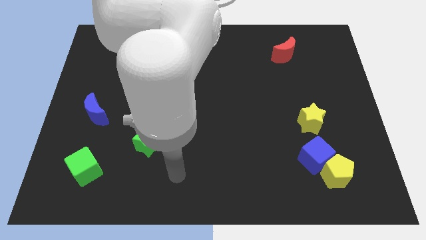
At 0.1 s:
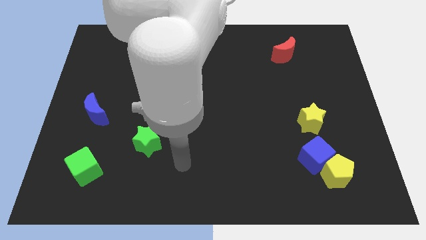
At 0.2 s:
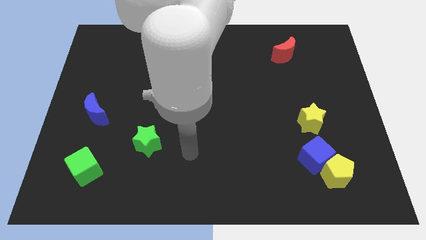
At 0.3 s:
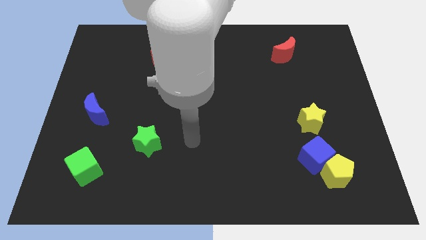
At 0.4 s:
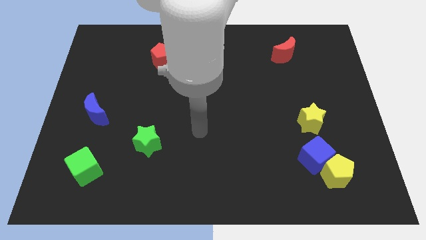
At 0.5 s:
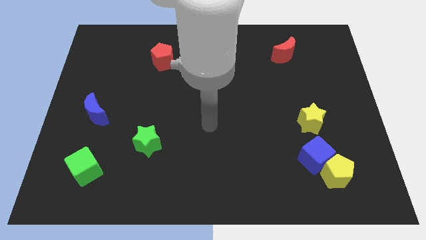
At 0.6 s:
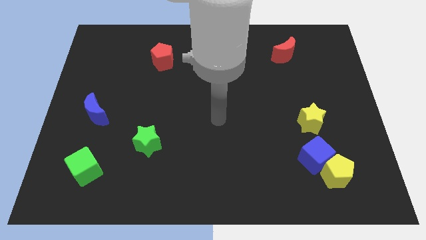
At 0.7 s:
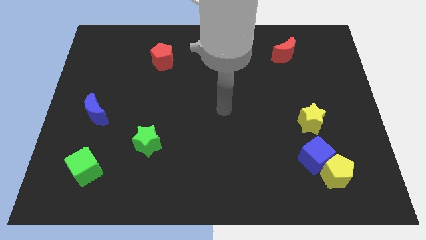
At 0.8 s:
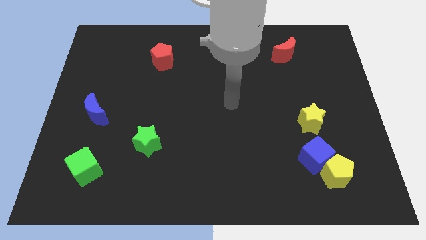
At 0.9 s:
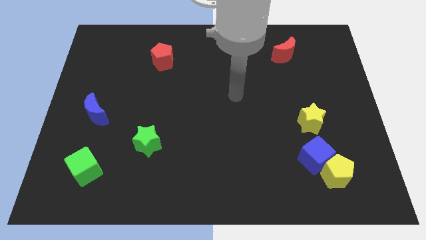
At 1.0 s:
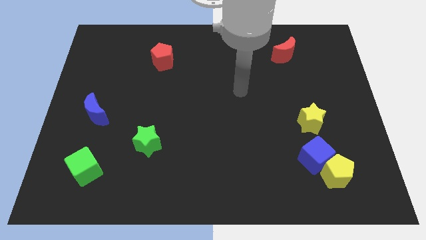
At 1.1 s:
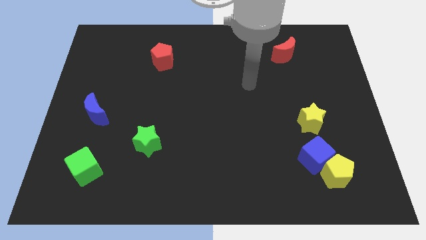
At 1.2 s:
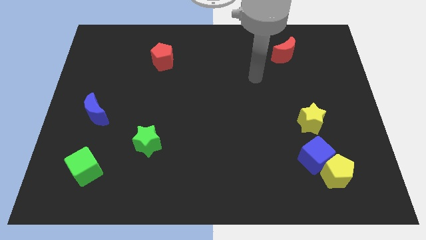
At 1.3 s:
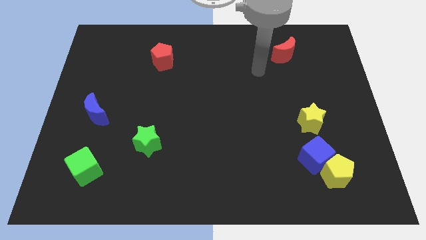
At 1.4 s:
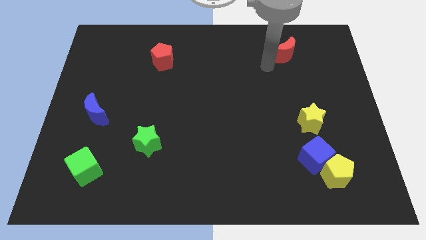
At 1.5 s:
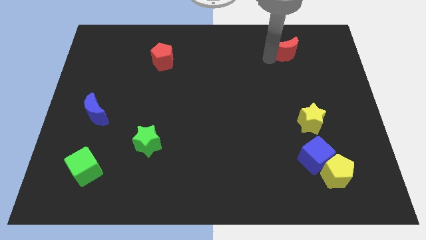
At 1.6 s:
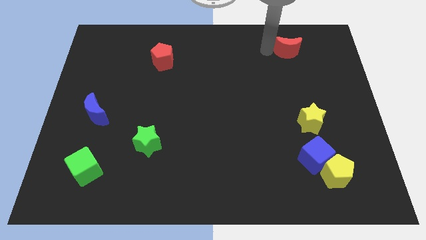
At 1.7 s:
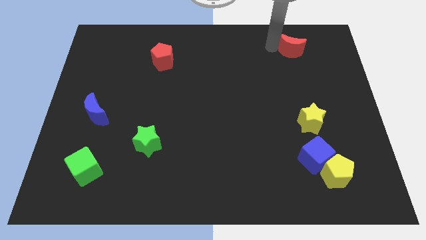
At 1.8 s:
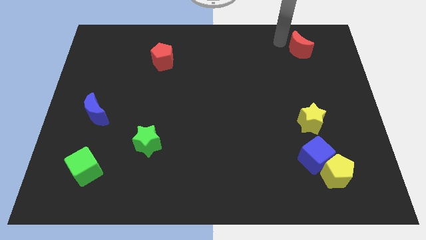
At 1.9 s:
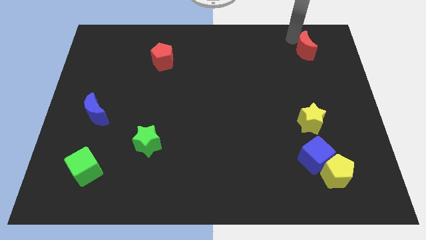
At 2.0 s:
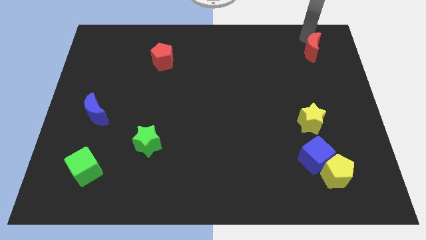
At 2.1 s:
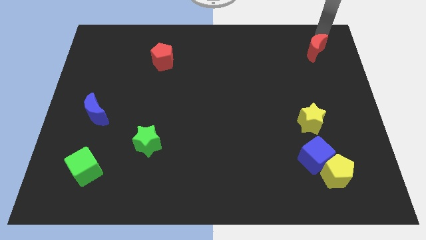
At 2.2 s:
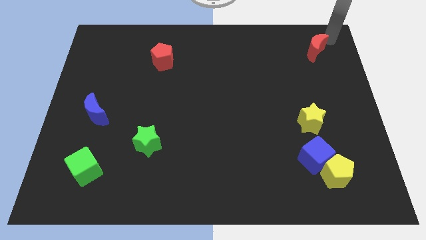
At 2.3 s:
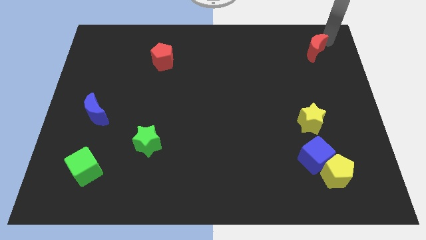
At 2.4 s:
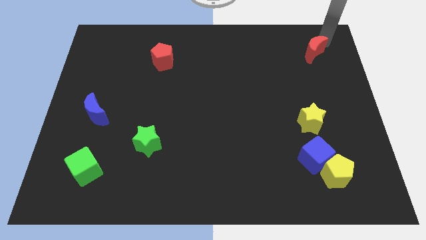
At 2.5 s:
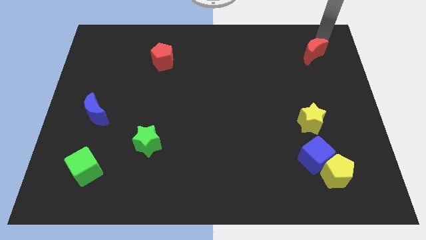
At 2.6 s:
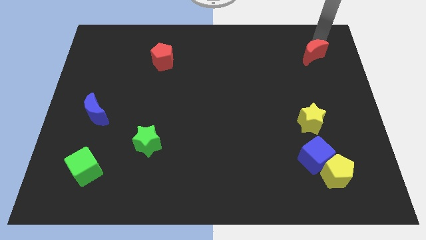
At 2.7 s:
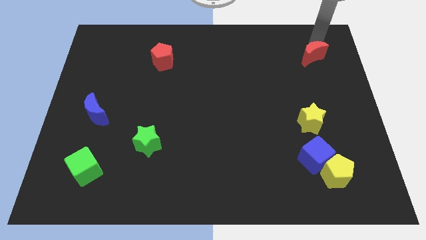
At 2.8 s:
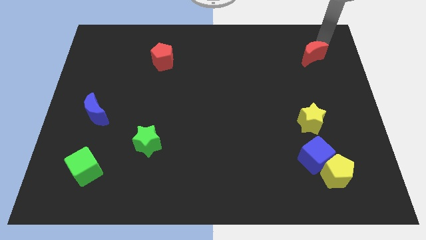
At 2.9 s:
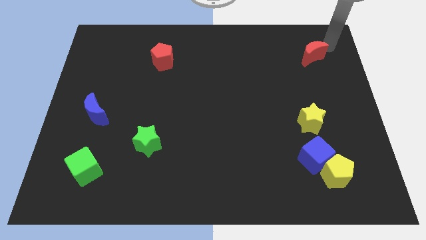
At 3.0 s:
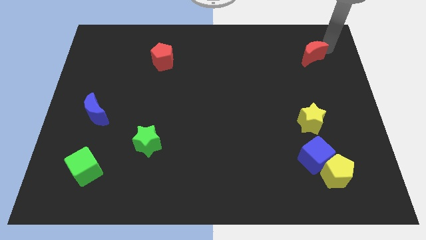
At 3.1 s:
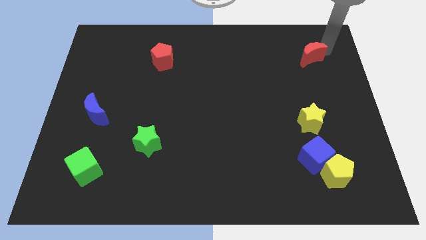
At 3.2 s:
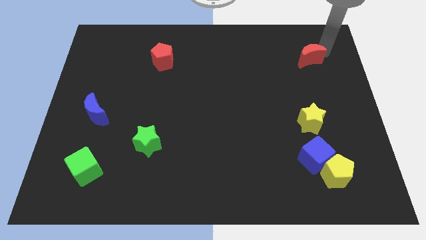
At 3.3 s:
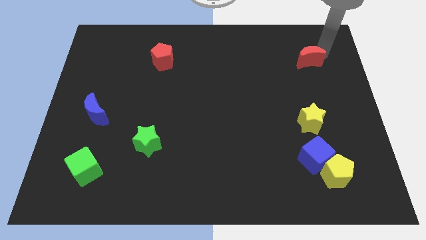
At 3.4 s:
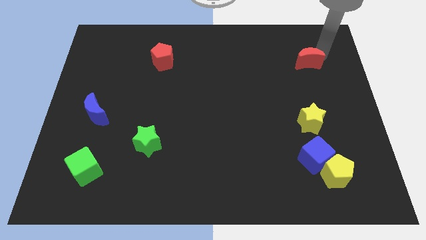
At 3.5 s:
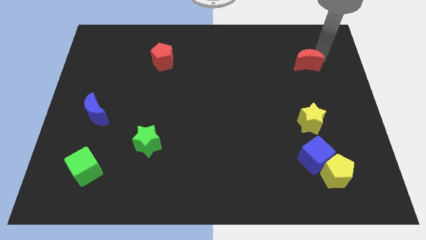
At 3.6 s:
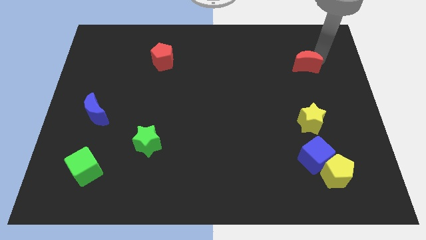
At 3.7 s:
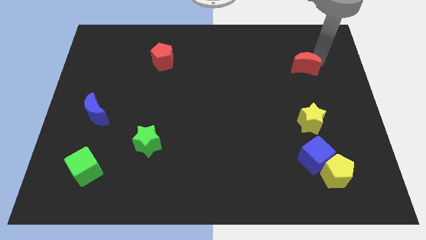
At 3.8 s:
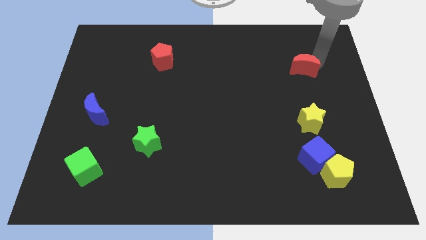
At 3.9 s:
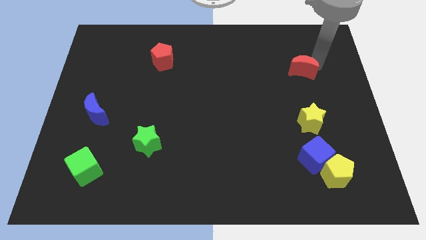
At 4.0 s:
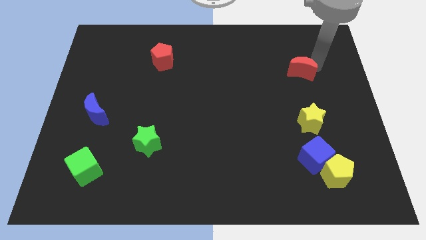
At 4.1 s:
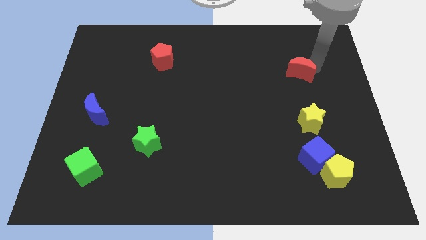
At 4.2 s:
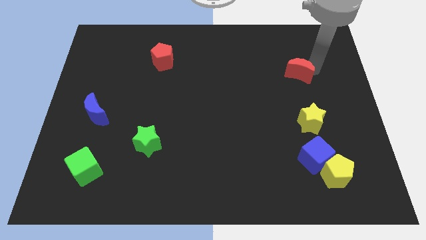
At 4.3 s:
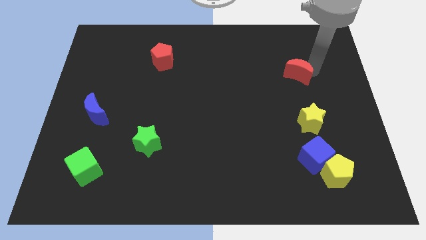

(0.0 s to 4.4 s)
push the red moon downwards a little bit

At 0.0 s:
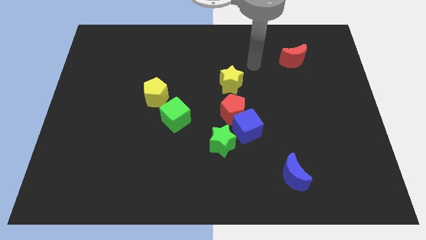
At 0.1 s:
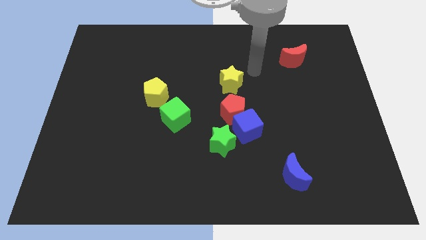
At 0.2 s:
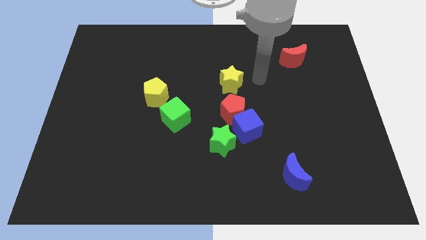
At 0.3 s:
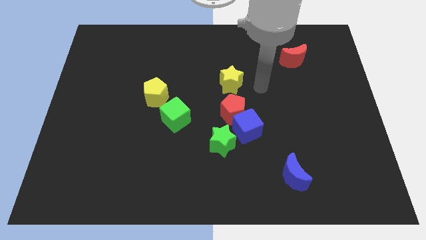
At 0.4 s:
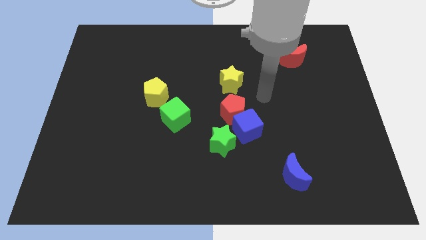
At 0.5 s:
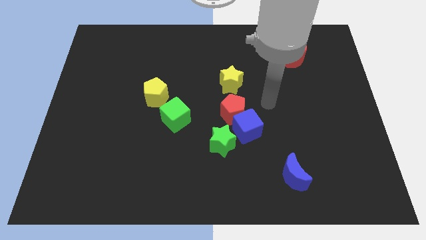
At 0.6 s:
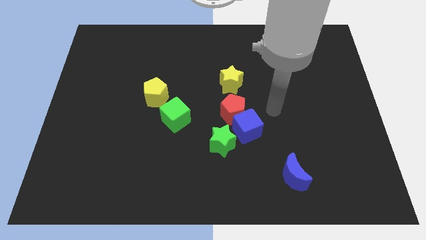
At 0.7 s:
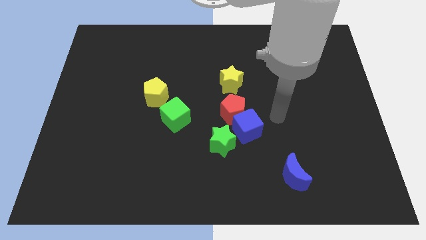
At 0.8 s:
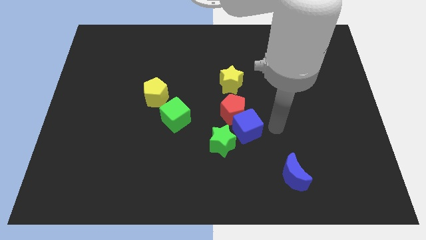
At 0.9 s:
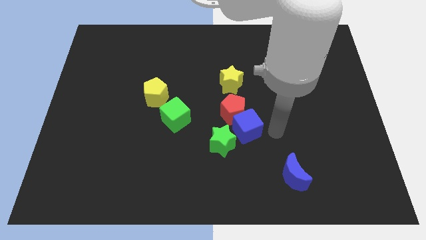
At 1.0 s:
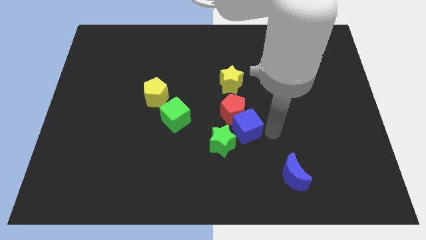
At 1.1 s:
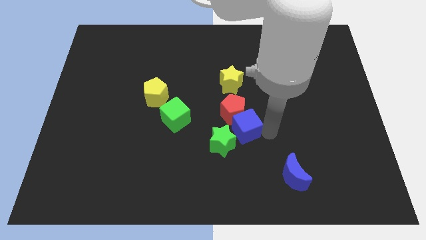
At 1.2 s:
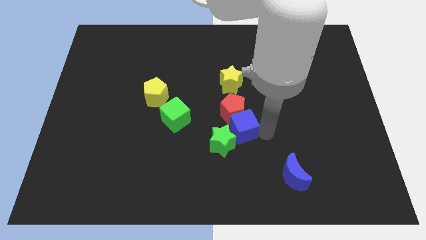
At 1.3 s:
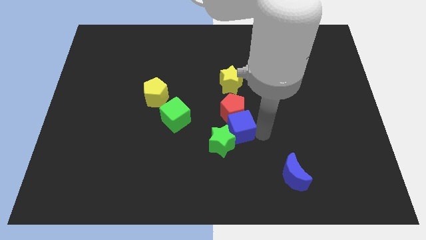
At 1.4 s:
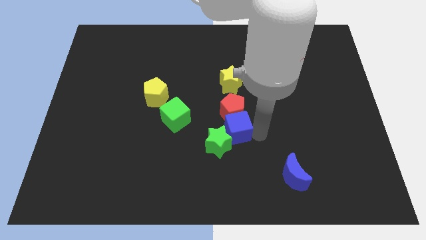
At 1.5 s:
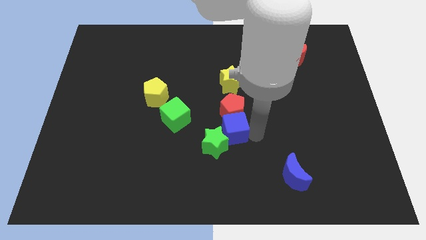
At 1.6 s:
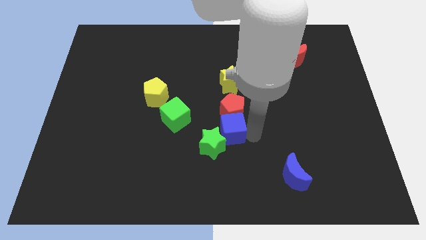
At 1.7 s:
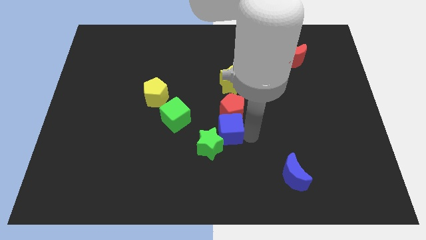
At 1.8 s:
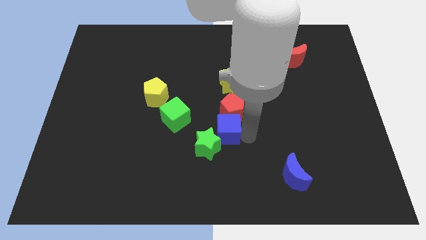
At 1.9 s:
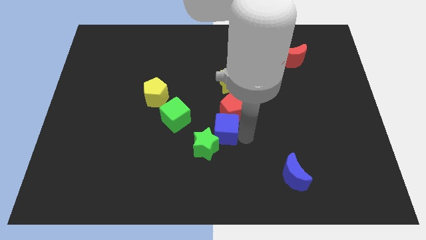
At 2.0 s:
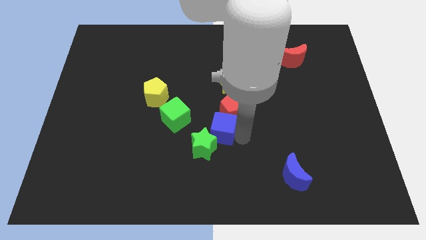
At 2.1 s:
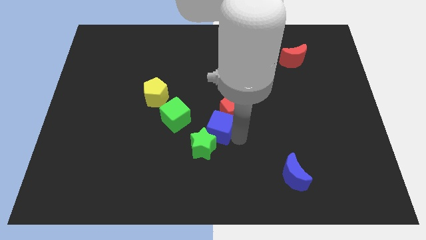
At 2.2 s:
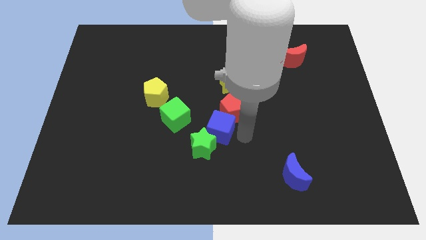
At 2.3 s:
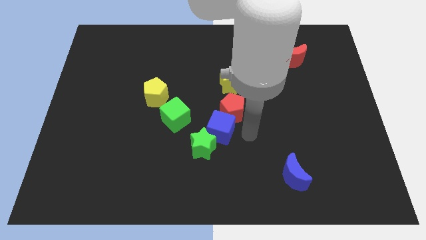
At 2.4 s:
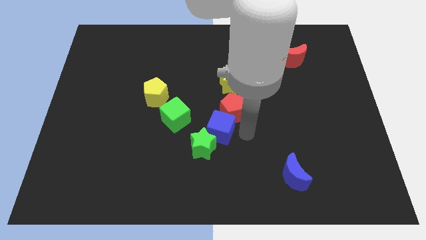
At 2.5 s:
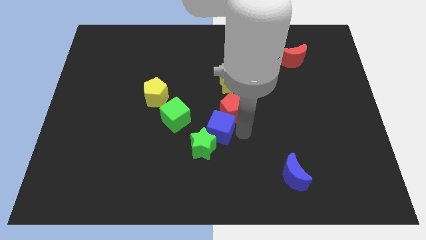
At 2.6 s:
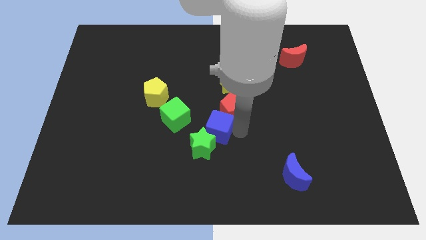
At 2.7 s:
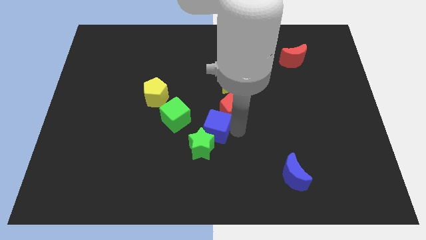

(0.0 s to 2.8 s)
slightly move the blue cube left

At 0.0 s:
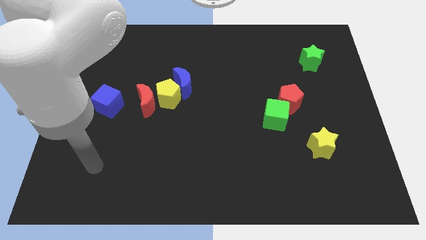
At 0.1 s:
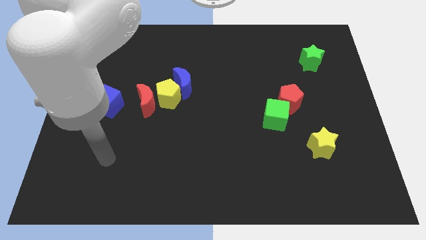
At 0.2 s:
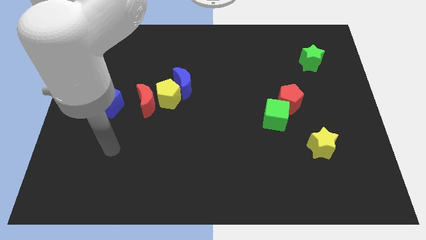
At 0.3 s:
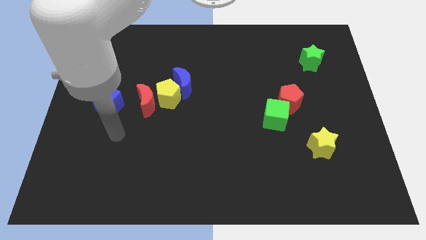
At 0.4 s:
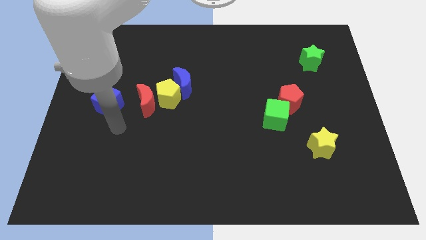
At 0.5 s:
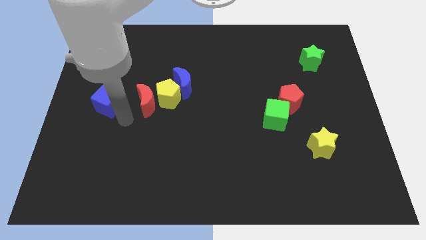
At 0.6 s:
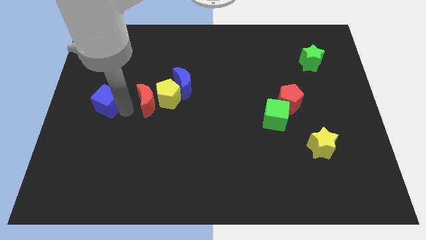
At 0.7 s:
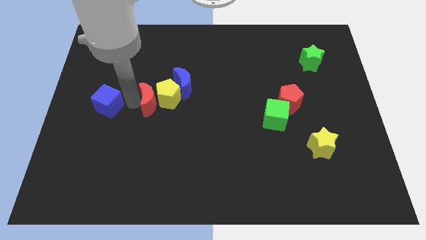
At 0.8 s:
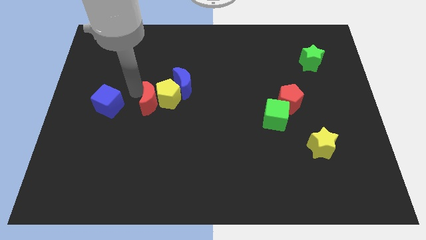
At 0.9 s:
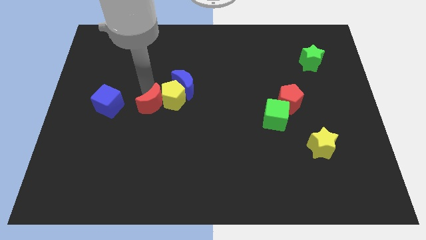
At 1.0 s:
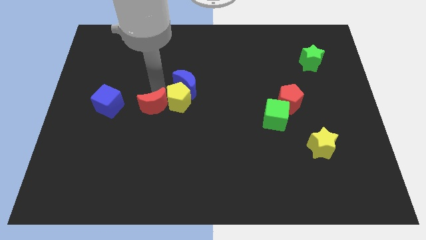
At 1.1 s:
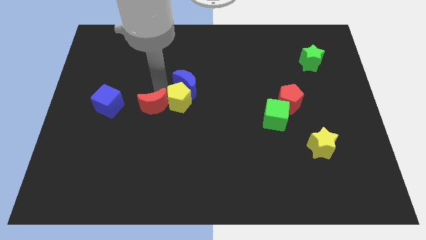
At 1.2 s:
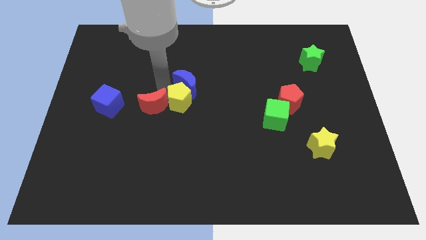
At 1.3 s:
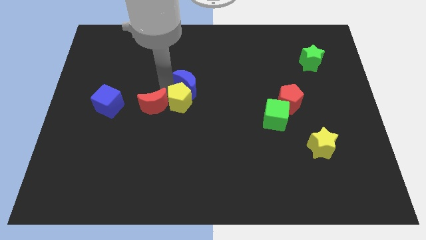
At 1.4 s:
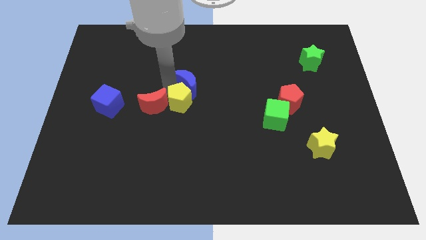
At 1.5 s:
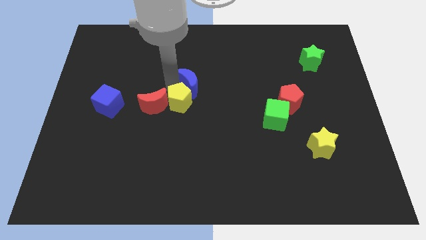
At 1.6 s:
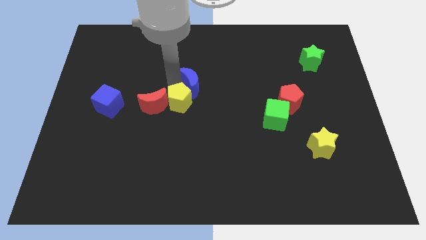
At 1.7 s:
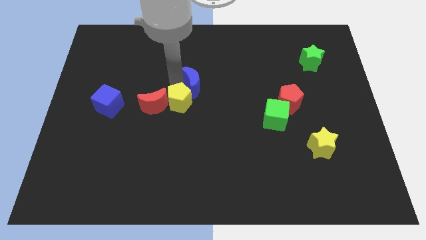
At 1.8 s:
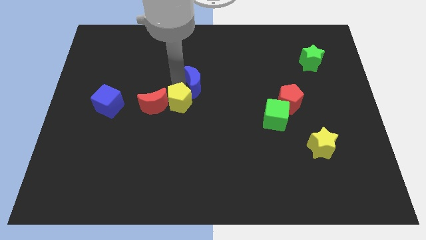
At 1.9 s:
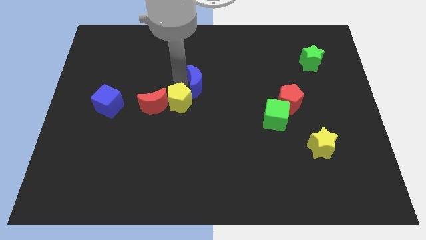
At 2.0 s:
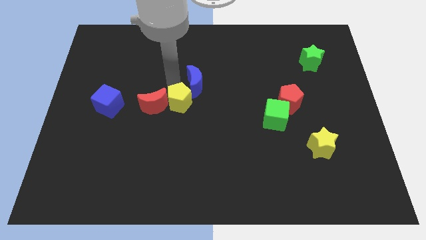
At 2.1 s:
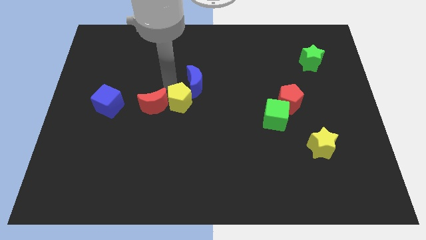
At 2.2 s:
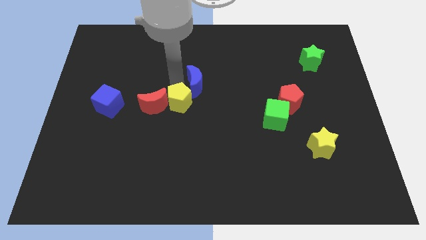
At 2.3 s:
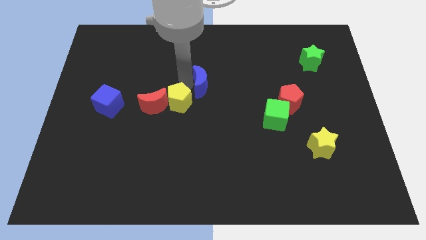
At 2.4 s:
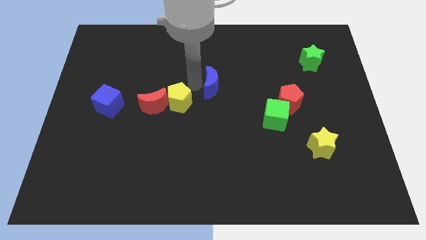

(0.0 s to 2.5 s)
slide the blue moon to the right somewhat
